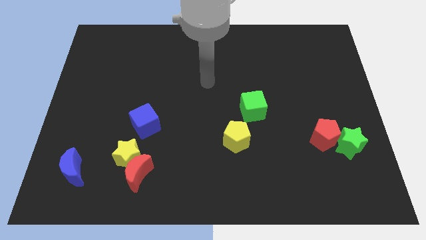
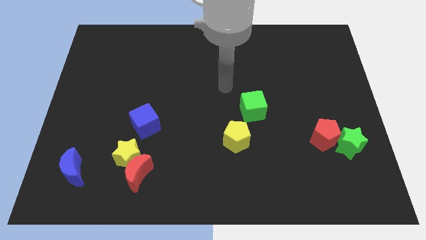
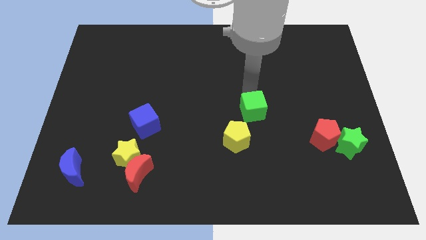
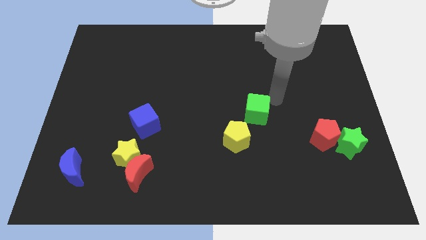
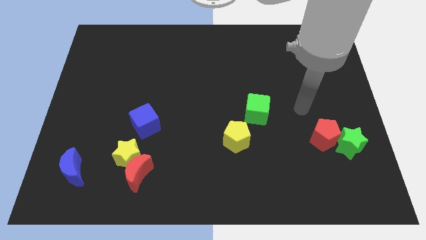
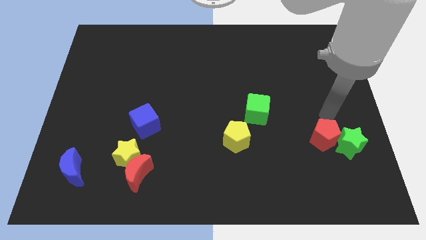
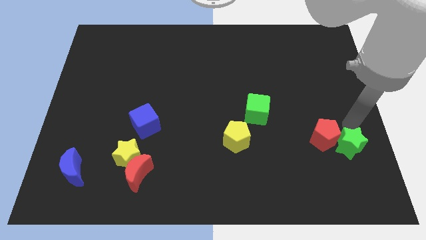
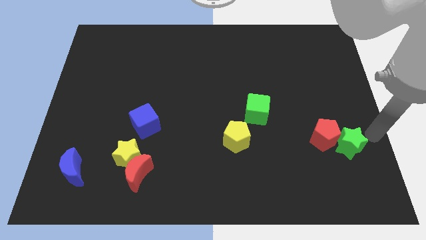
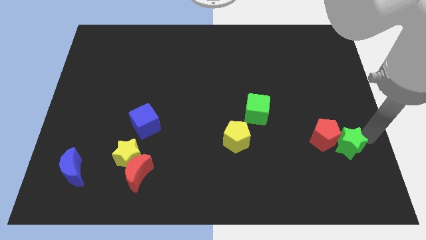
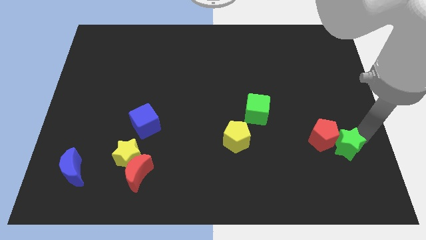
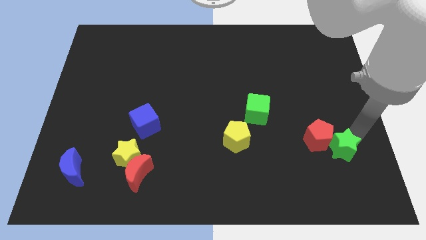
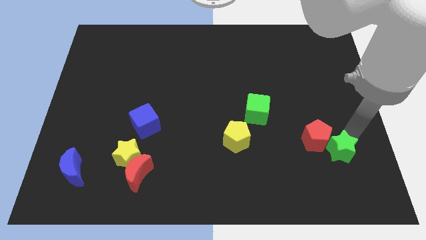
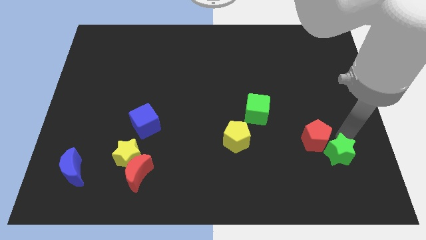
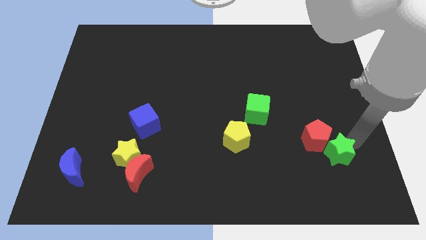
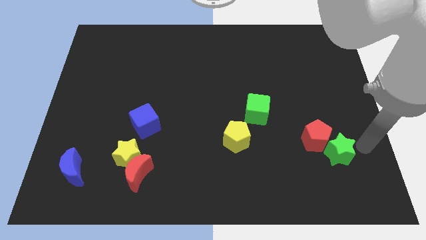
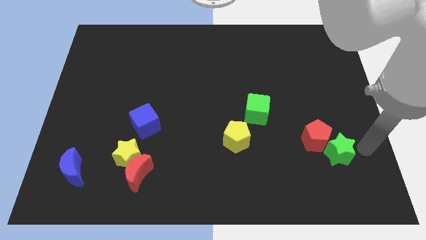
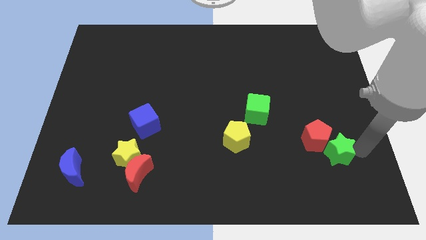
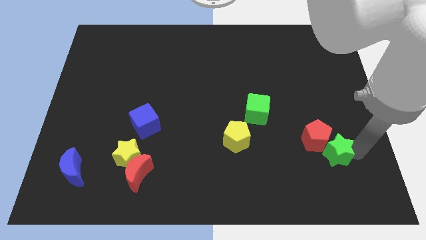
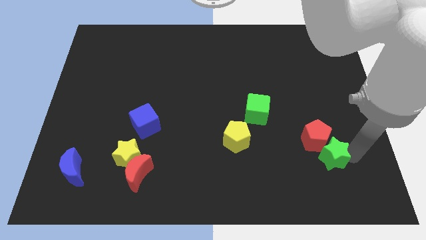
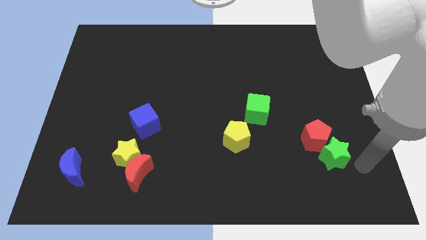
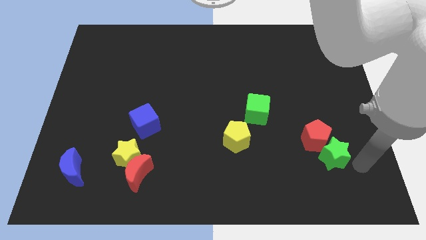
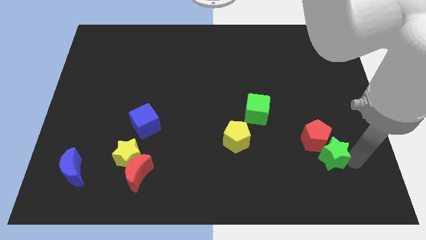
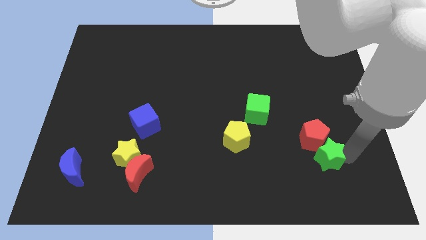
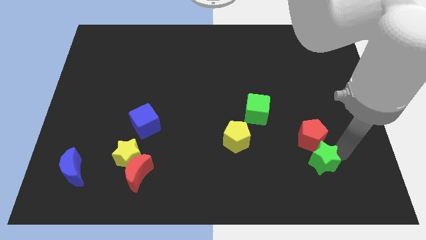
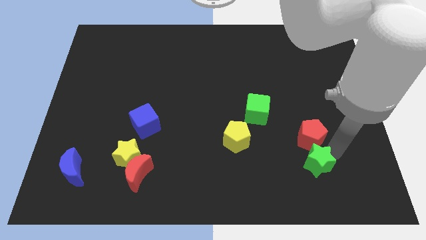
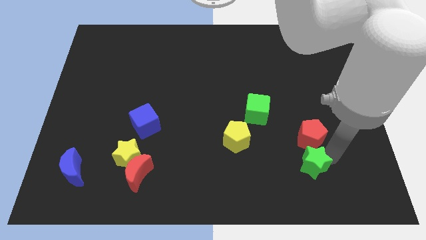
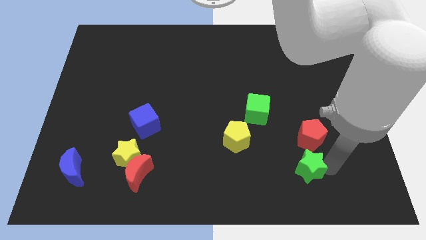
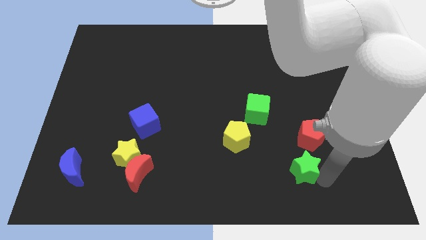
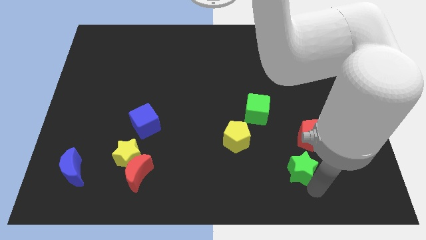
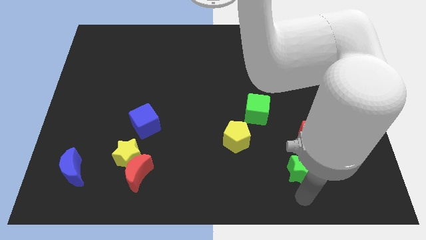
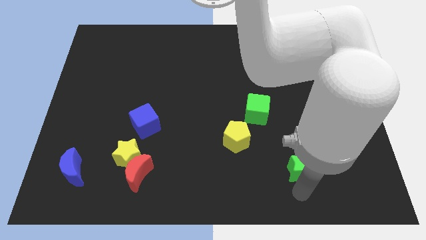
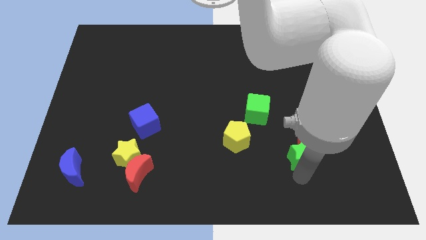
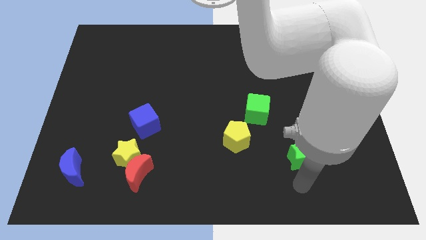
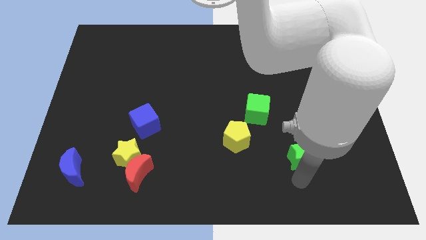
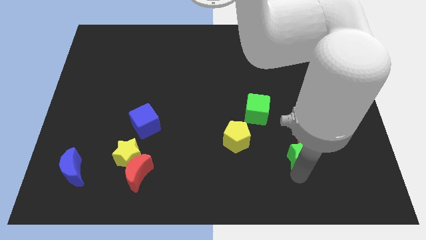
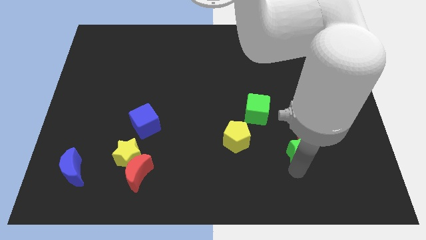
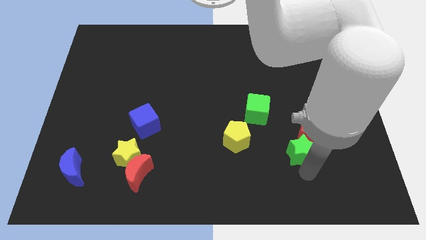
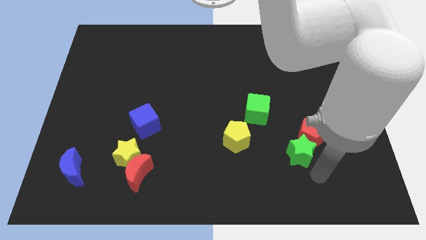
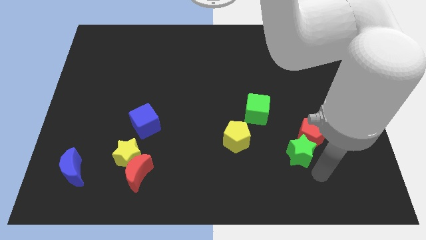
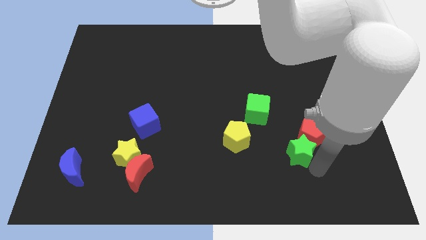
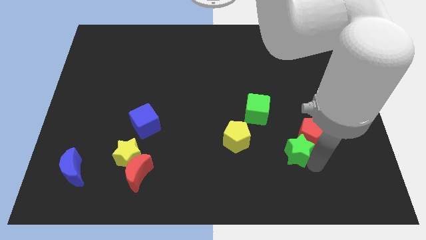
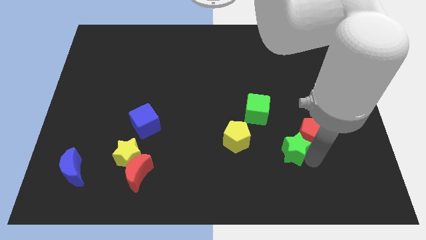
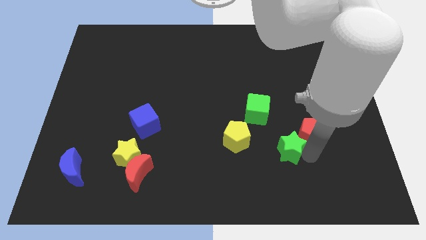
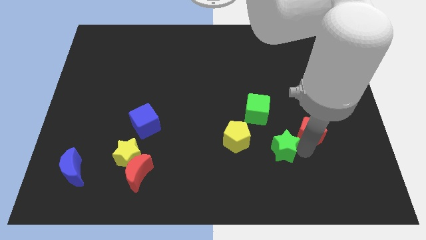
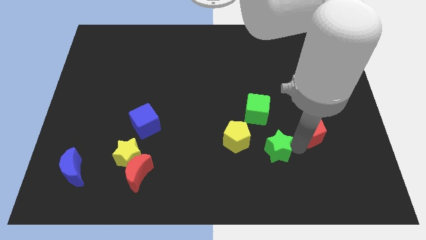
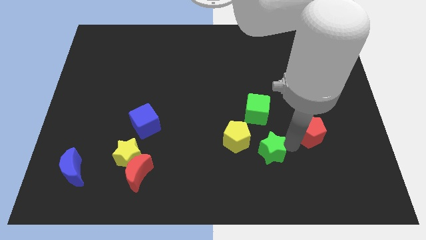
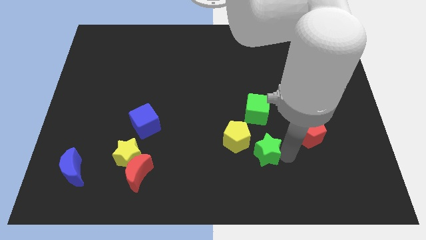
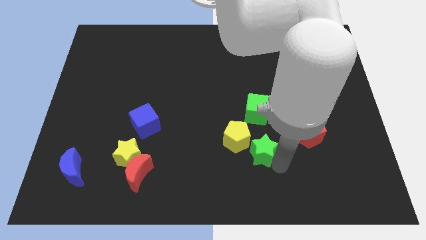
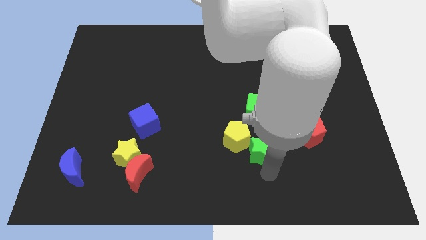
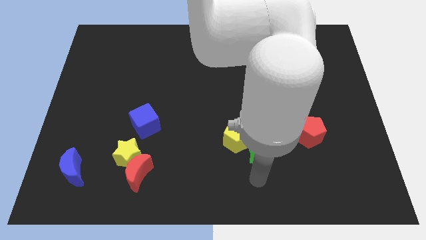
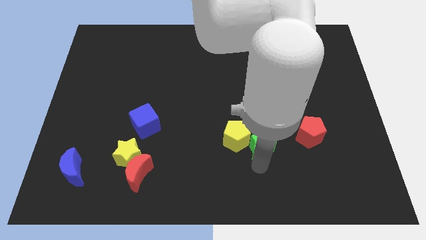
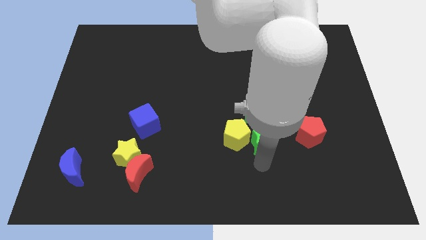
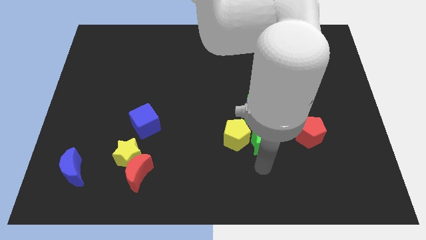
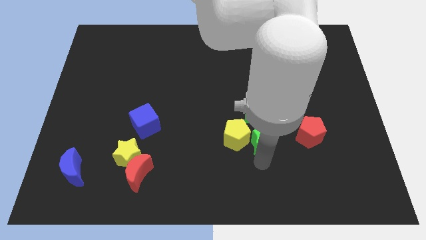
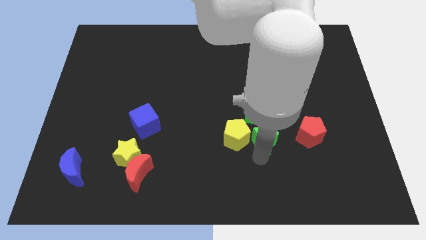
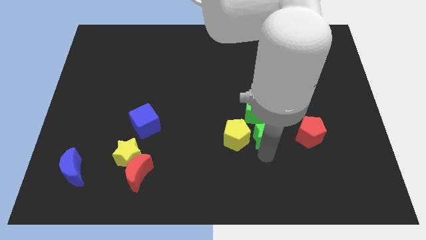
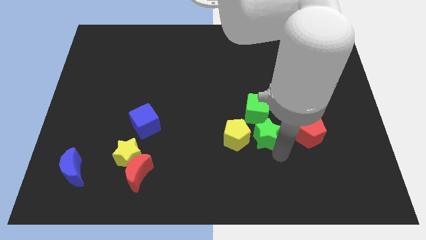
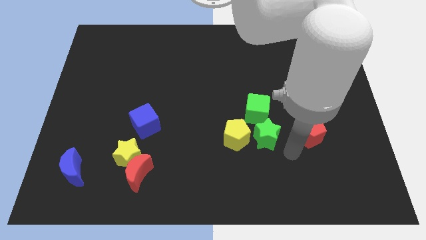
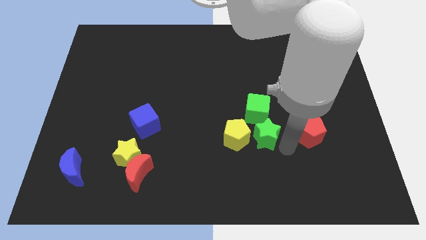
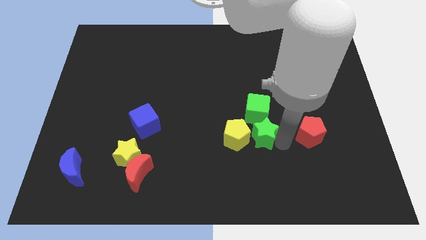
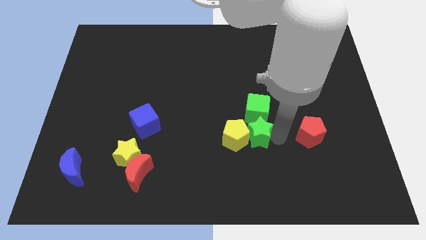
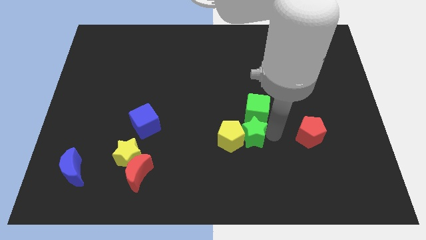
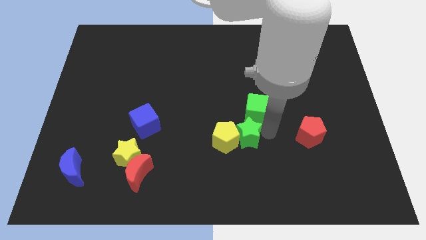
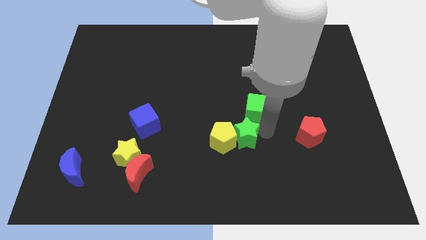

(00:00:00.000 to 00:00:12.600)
put the green star to the middle of the board

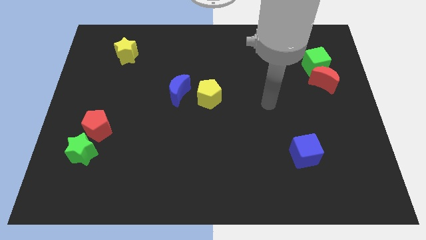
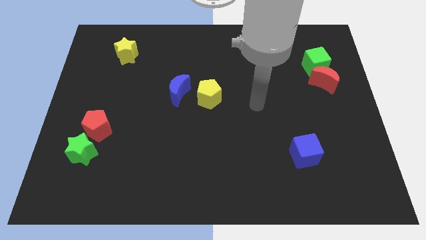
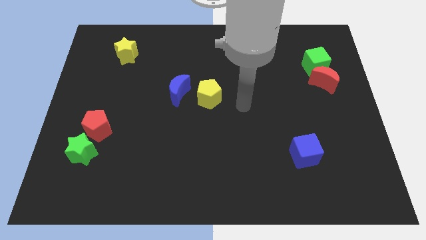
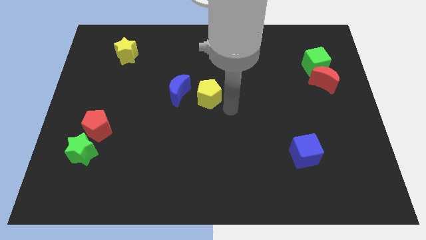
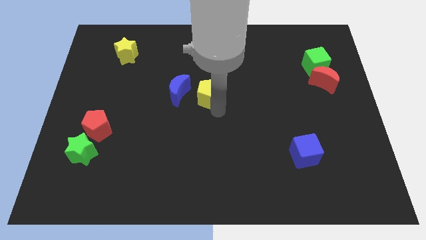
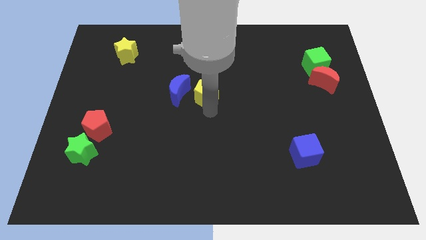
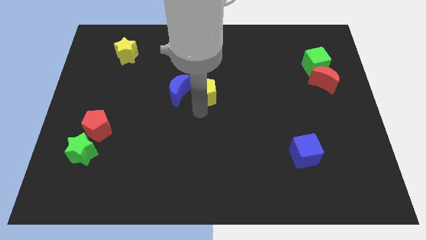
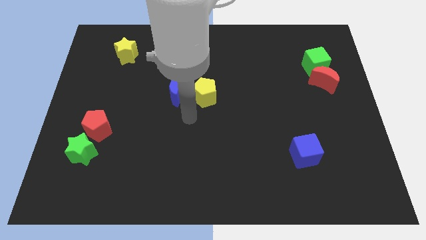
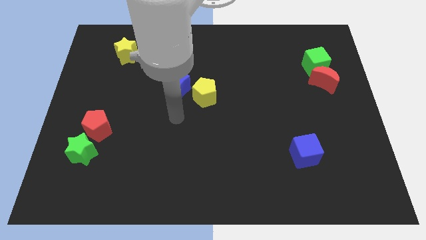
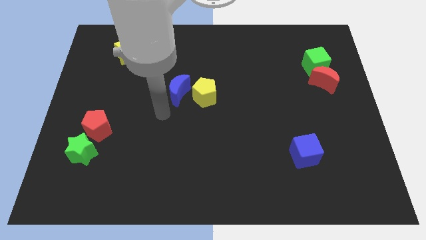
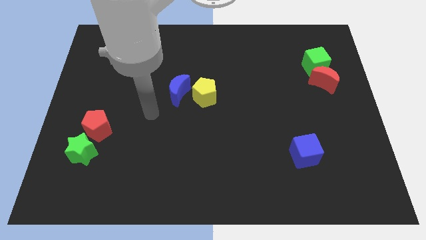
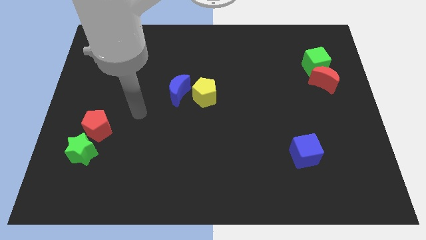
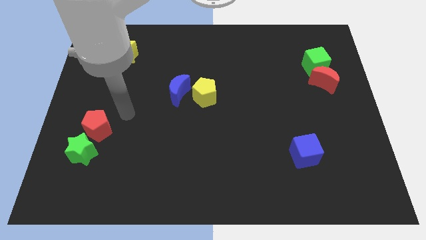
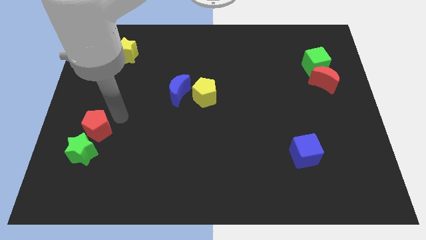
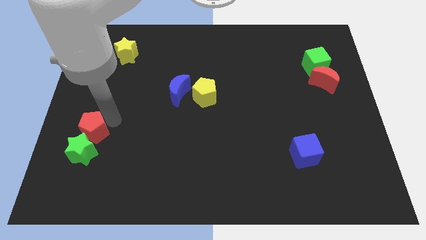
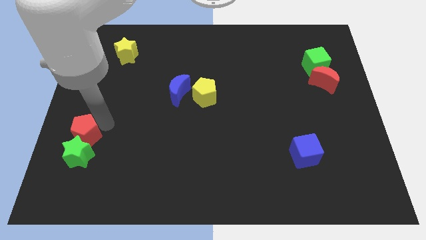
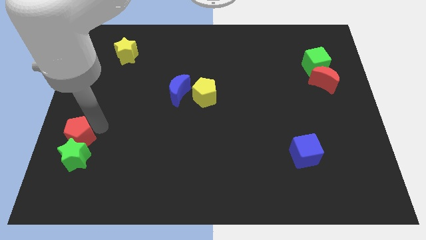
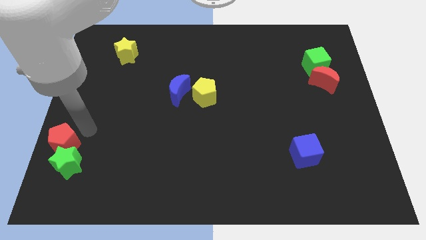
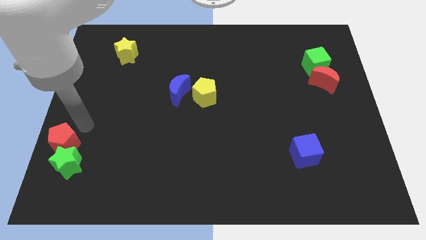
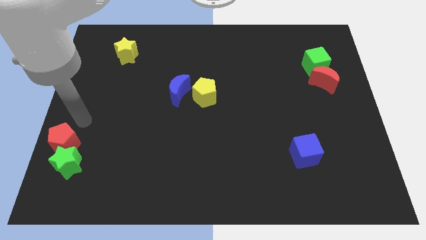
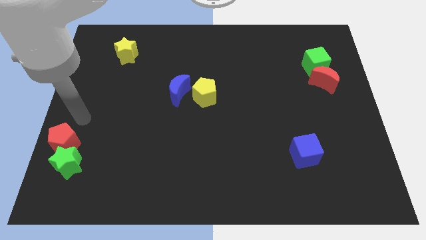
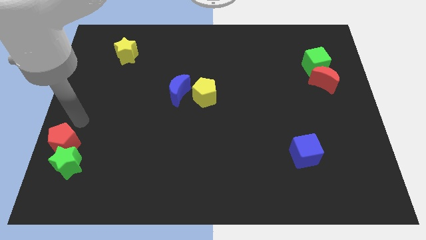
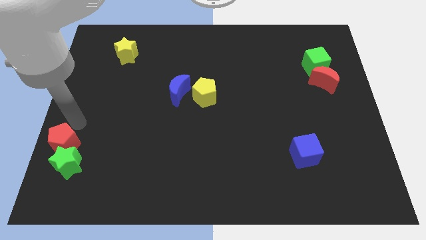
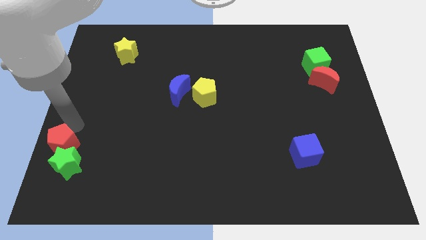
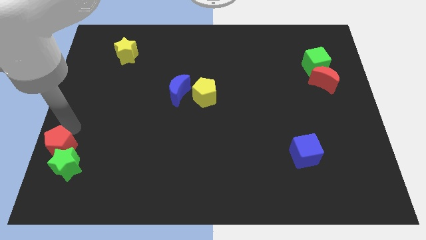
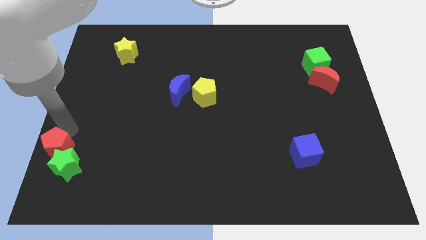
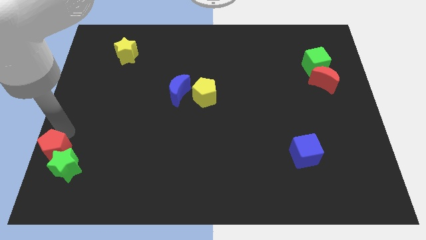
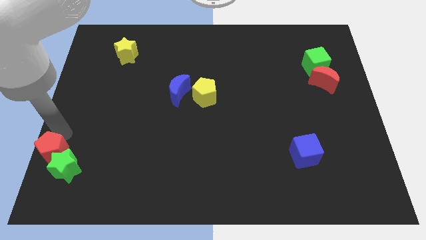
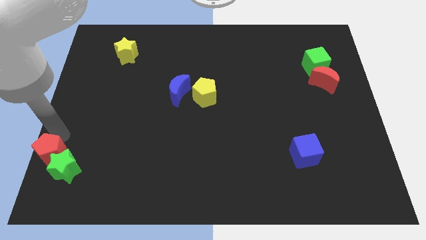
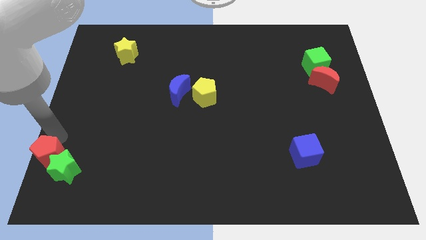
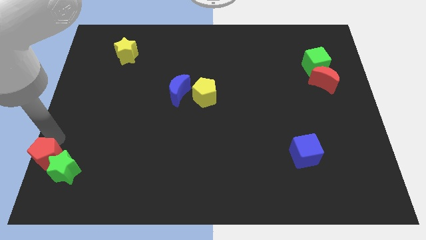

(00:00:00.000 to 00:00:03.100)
move the red pentagon to the bottom left corner
